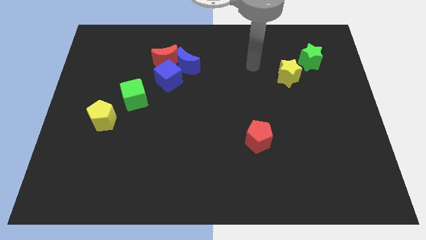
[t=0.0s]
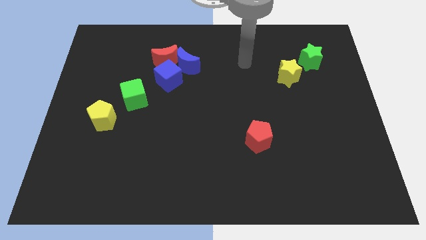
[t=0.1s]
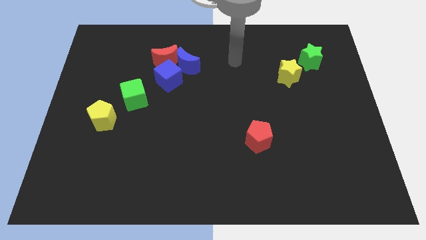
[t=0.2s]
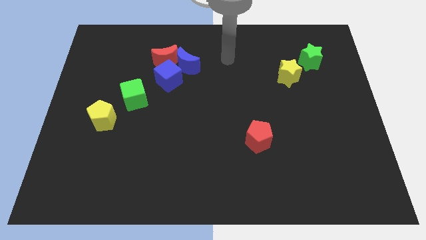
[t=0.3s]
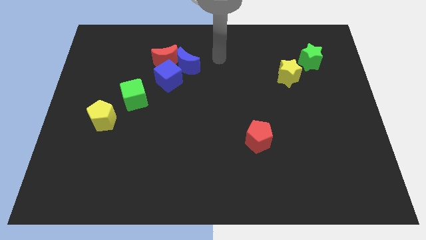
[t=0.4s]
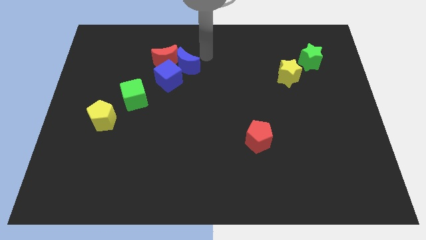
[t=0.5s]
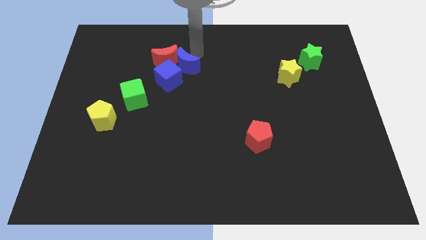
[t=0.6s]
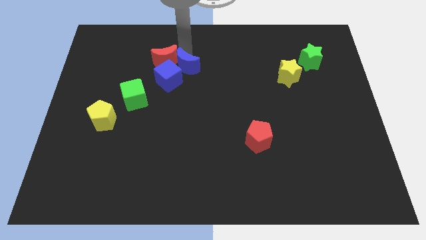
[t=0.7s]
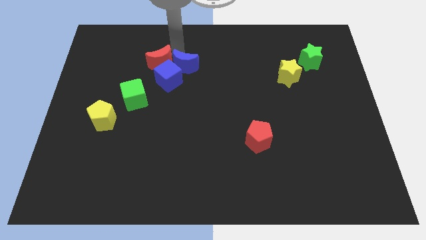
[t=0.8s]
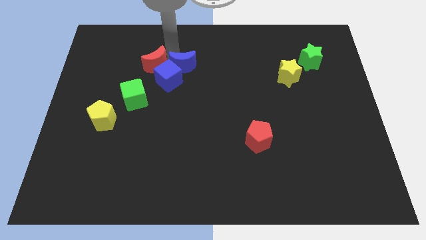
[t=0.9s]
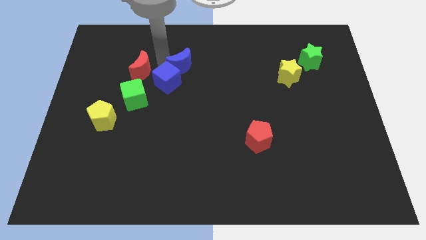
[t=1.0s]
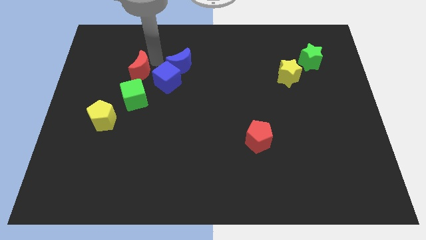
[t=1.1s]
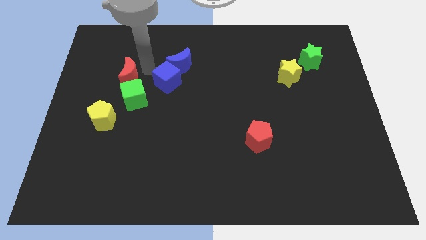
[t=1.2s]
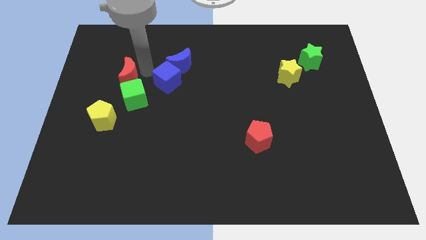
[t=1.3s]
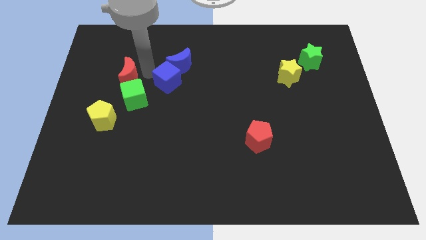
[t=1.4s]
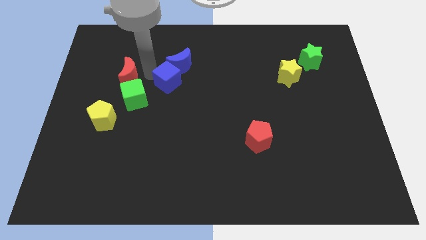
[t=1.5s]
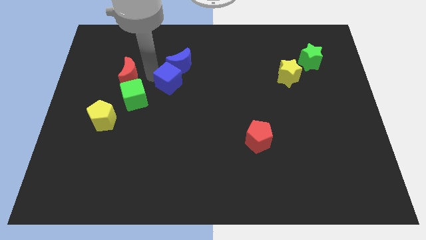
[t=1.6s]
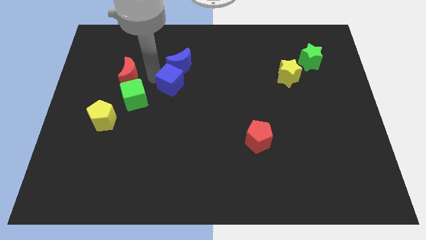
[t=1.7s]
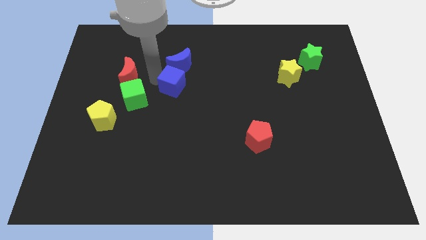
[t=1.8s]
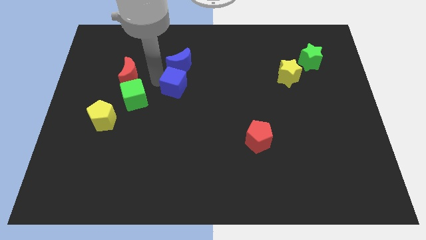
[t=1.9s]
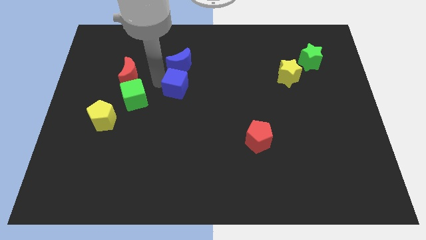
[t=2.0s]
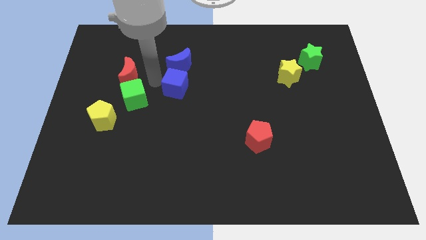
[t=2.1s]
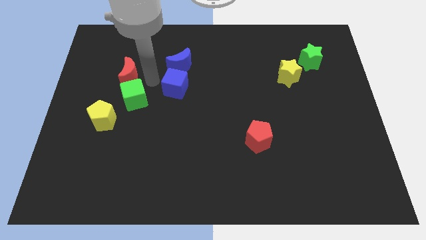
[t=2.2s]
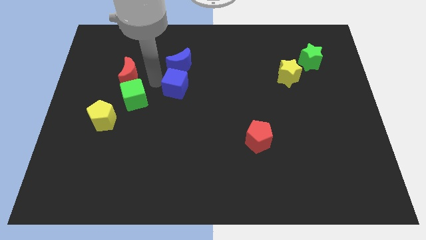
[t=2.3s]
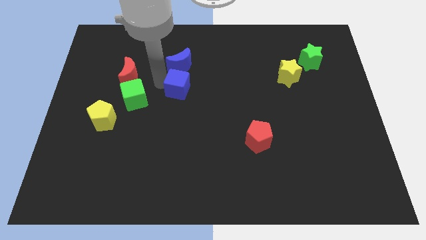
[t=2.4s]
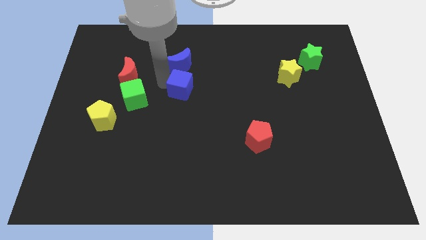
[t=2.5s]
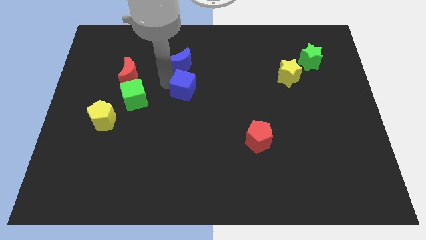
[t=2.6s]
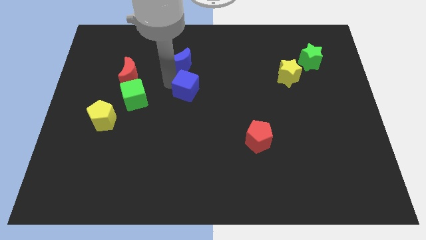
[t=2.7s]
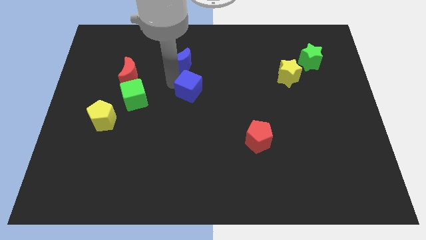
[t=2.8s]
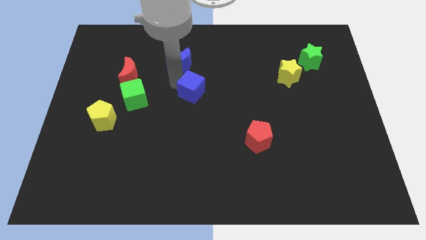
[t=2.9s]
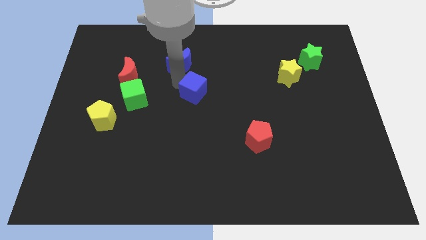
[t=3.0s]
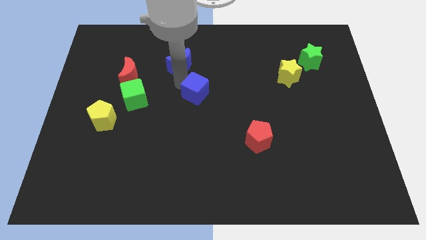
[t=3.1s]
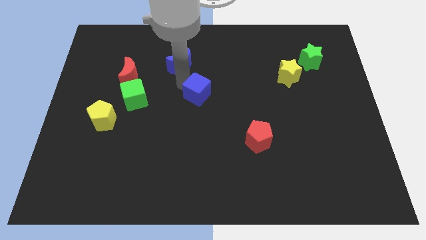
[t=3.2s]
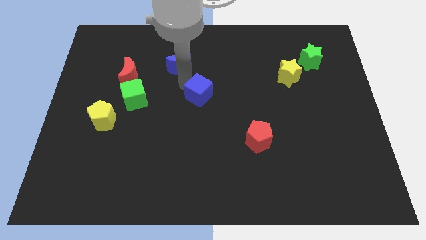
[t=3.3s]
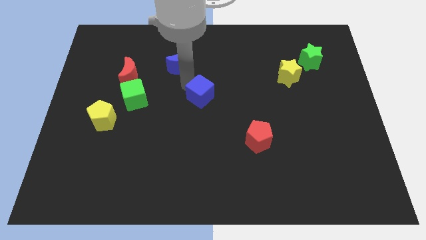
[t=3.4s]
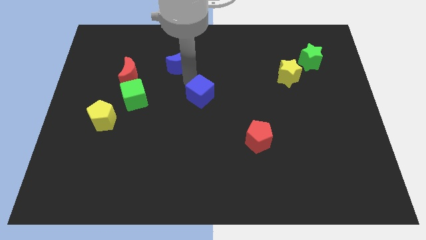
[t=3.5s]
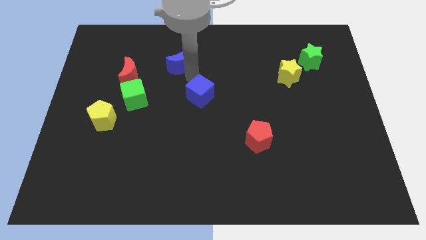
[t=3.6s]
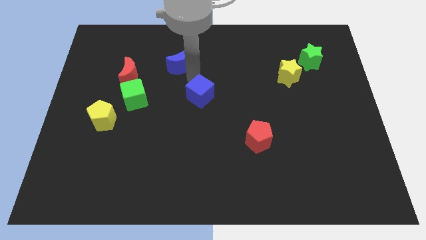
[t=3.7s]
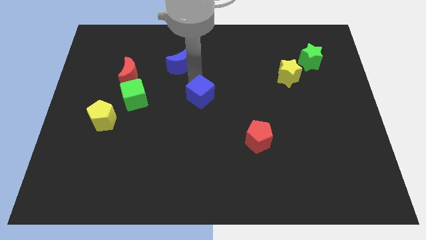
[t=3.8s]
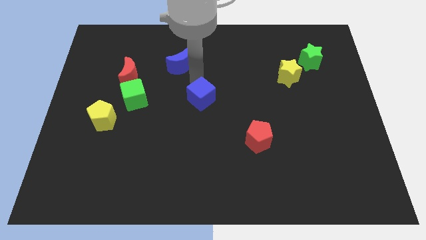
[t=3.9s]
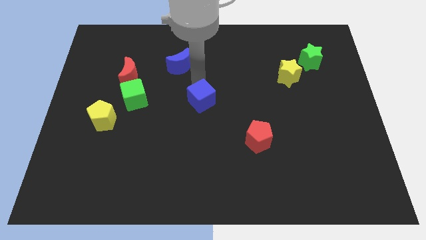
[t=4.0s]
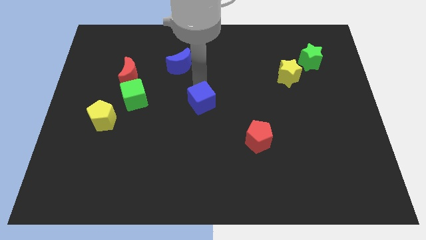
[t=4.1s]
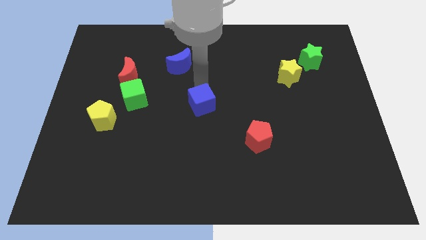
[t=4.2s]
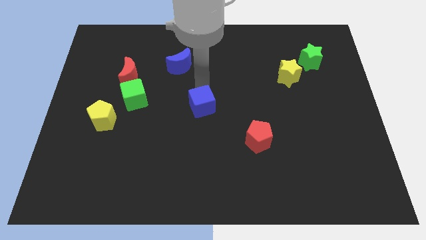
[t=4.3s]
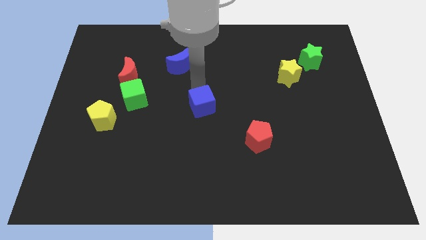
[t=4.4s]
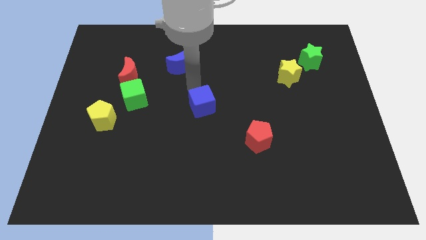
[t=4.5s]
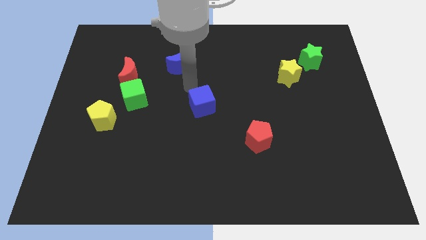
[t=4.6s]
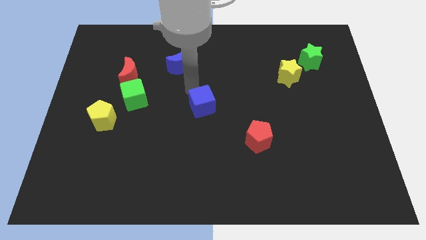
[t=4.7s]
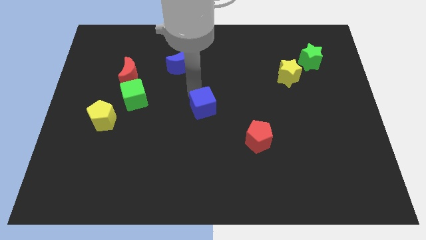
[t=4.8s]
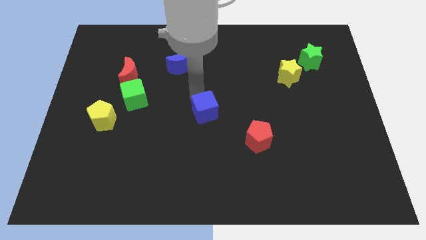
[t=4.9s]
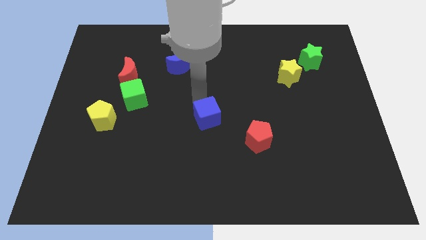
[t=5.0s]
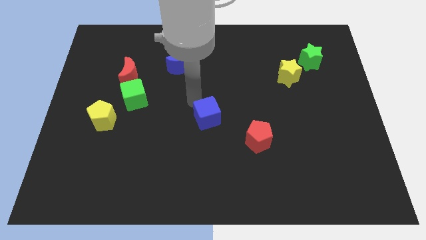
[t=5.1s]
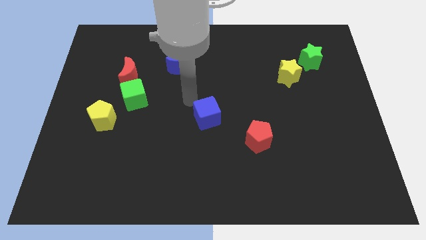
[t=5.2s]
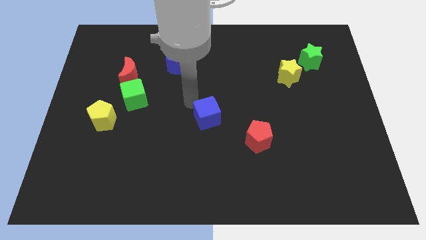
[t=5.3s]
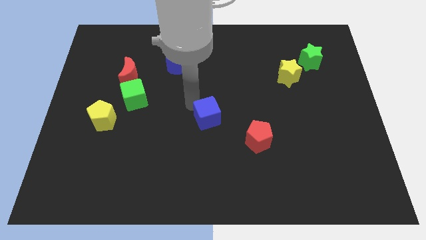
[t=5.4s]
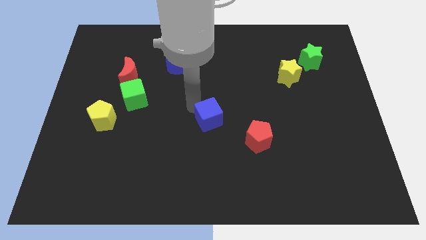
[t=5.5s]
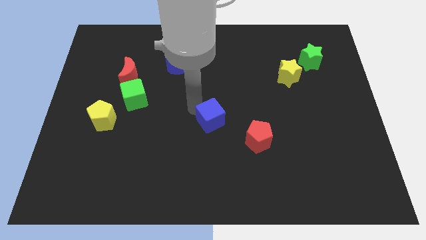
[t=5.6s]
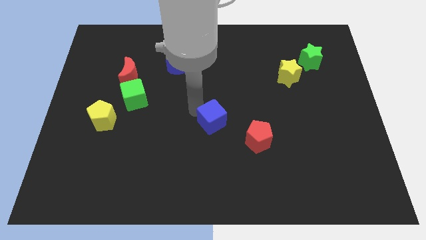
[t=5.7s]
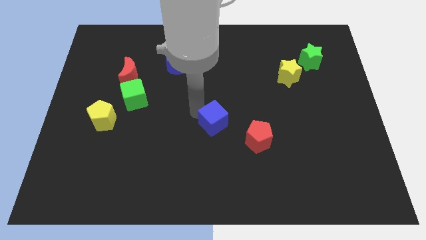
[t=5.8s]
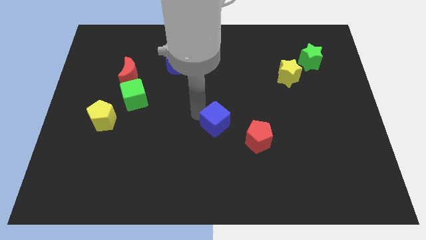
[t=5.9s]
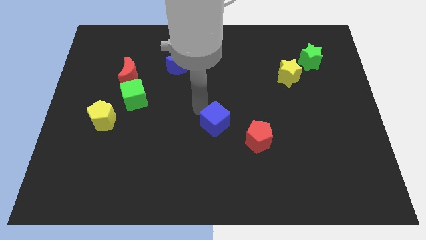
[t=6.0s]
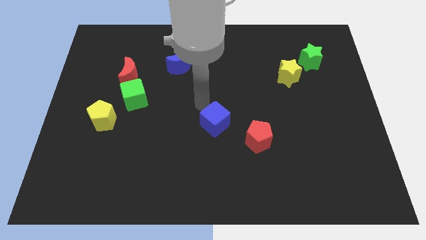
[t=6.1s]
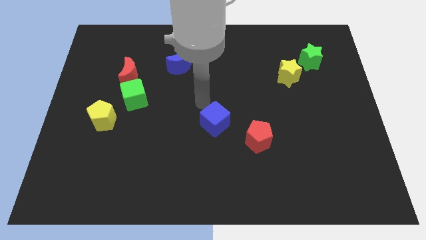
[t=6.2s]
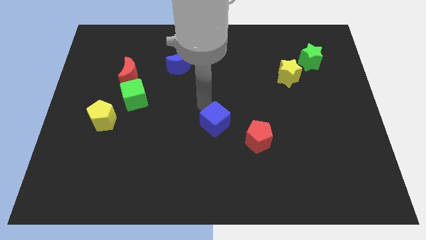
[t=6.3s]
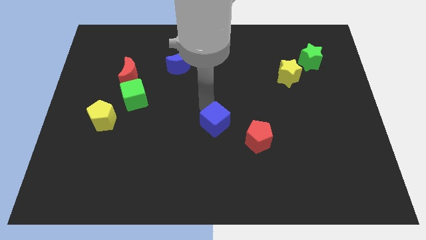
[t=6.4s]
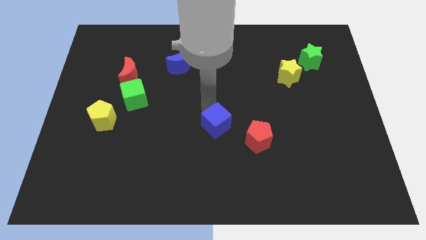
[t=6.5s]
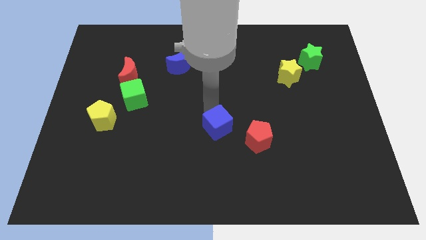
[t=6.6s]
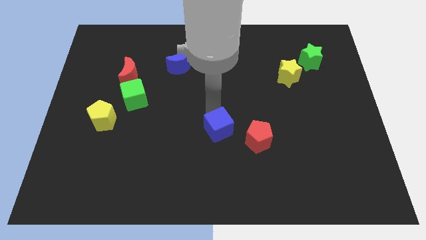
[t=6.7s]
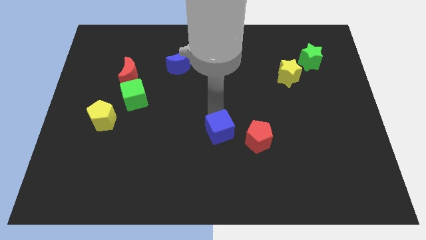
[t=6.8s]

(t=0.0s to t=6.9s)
move the blue cube diagonally downwards and to the right

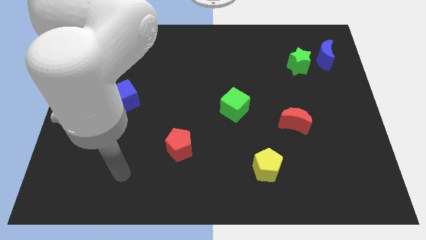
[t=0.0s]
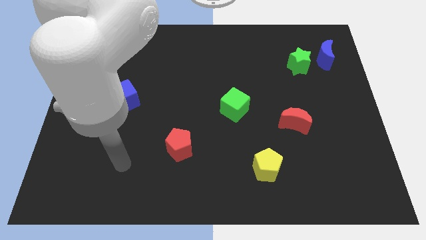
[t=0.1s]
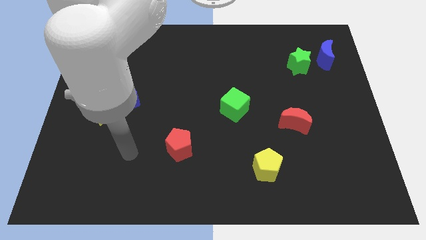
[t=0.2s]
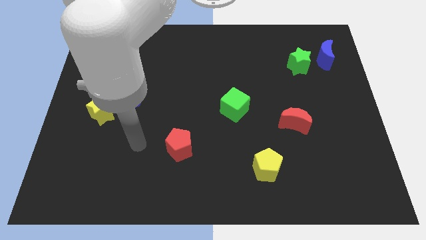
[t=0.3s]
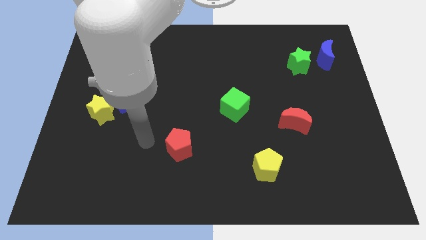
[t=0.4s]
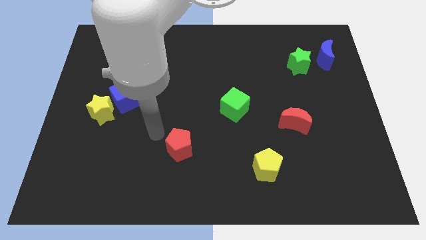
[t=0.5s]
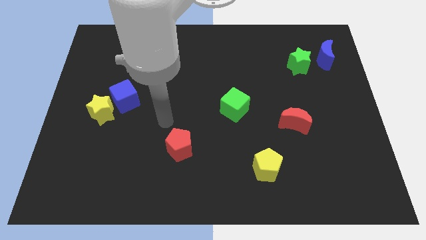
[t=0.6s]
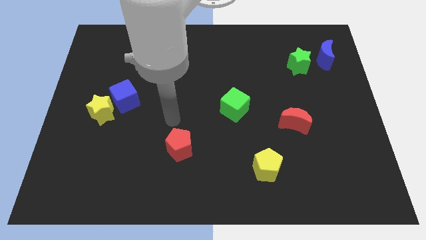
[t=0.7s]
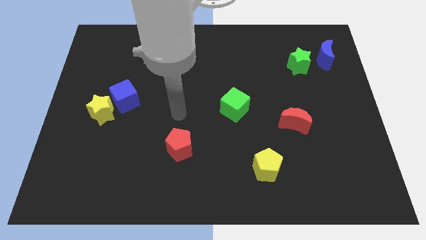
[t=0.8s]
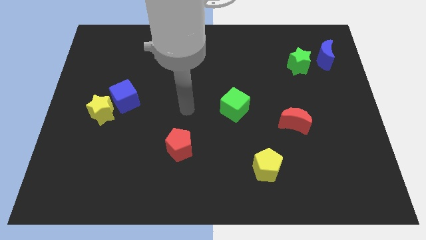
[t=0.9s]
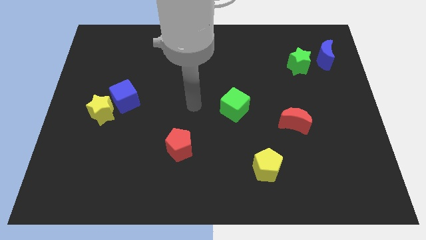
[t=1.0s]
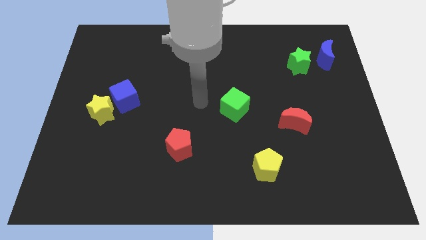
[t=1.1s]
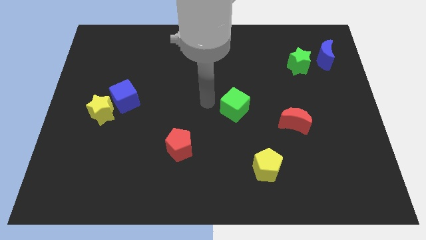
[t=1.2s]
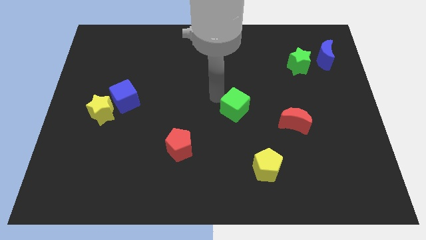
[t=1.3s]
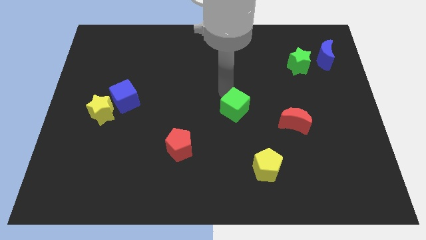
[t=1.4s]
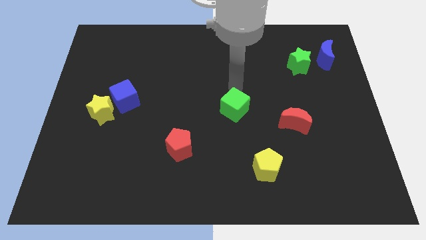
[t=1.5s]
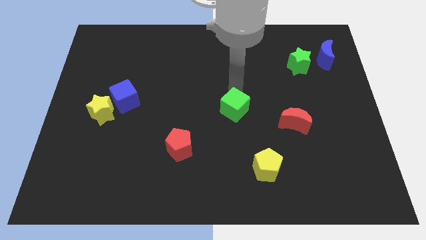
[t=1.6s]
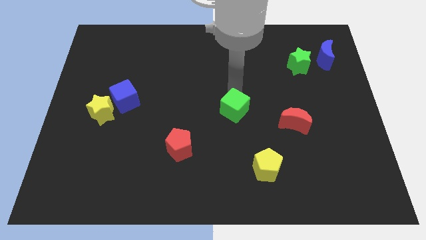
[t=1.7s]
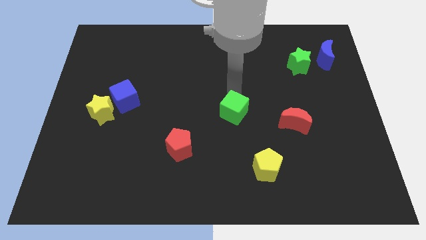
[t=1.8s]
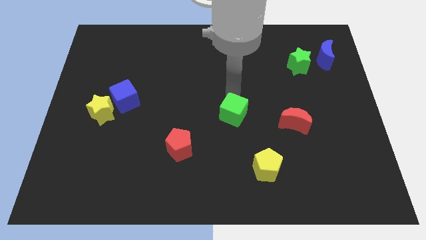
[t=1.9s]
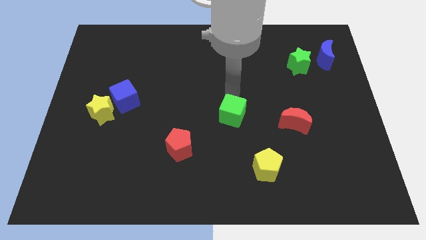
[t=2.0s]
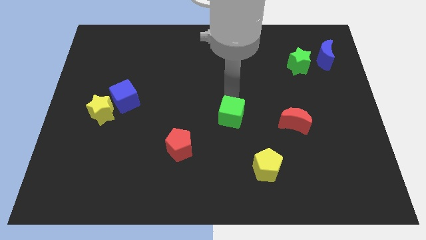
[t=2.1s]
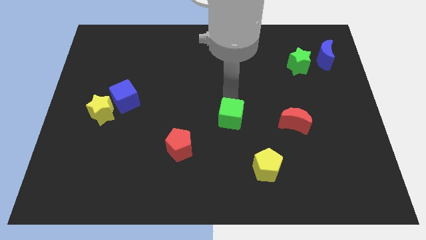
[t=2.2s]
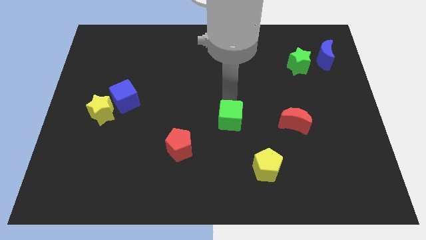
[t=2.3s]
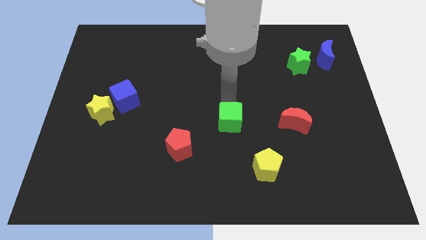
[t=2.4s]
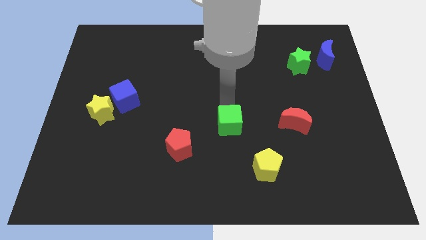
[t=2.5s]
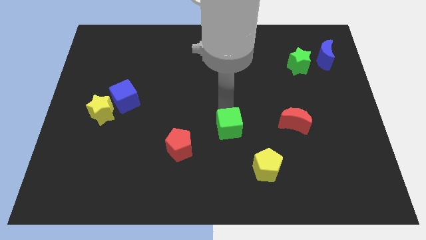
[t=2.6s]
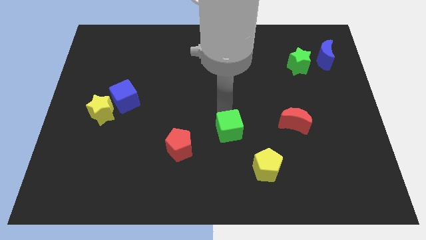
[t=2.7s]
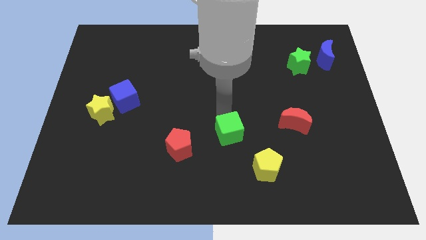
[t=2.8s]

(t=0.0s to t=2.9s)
slightly slide the green cube down
